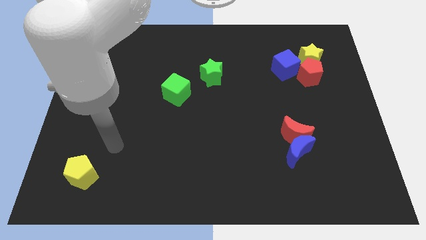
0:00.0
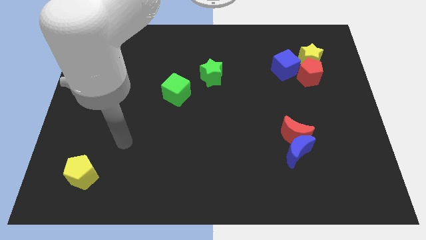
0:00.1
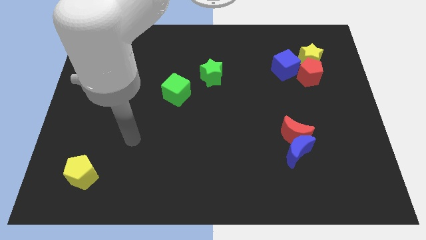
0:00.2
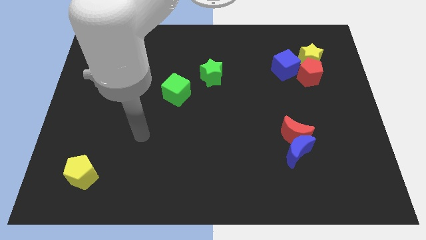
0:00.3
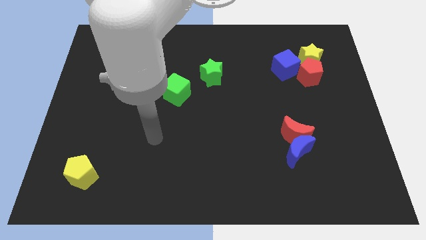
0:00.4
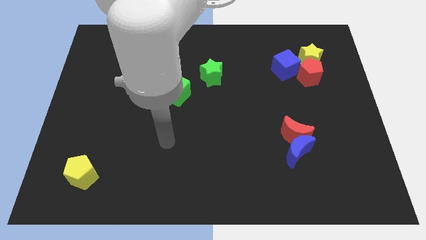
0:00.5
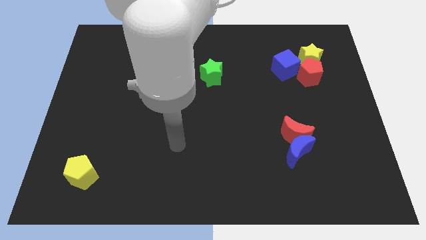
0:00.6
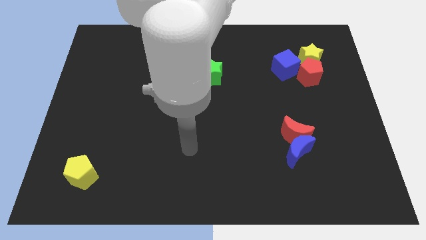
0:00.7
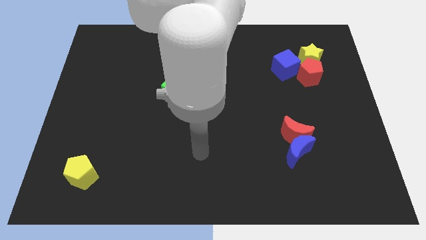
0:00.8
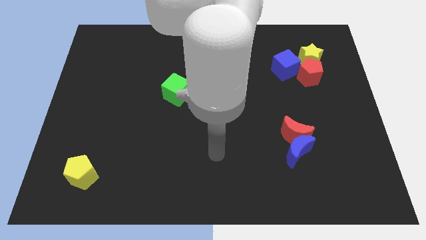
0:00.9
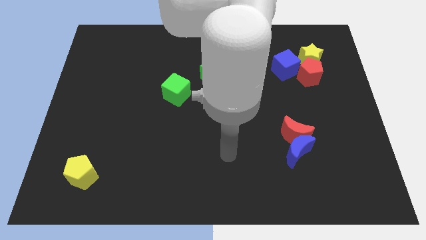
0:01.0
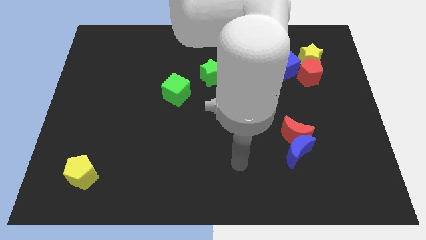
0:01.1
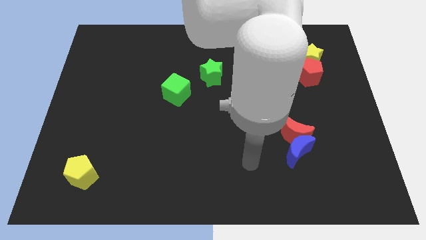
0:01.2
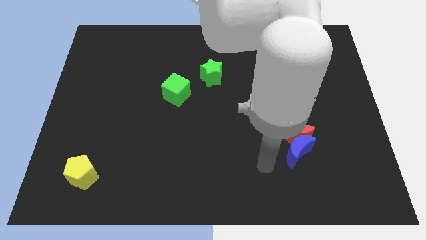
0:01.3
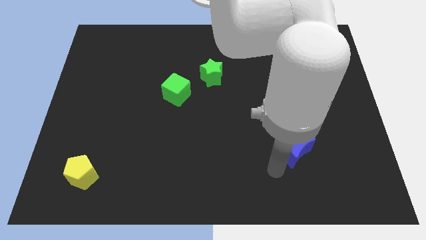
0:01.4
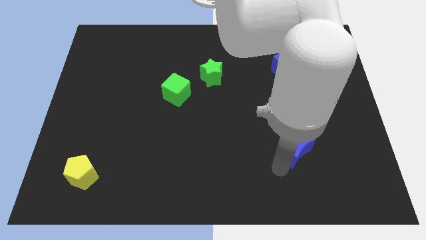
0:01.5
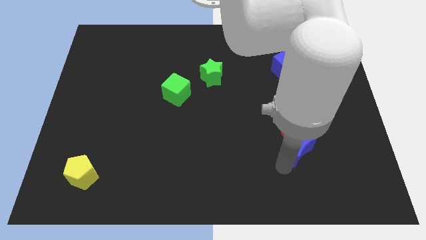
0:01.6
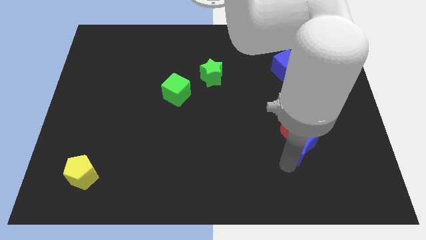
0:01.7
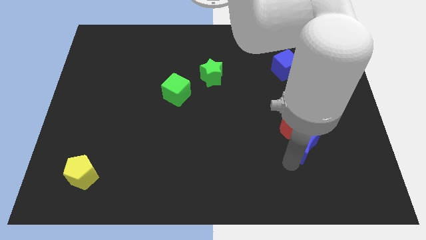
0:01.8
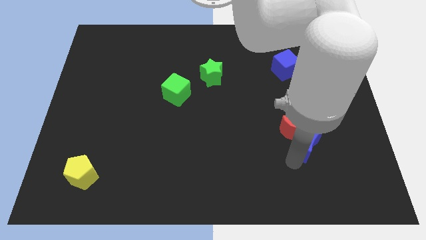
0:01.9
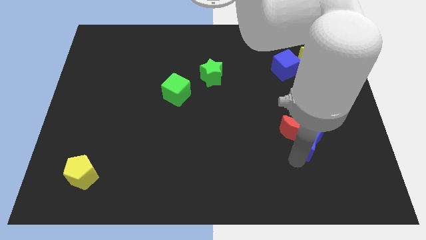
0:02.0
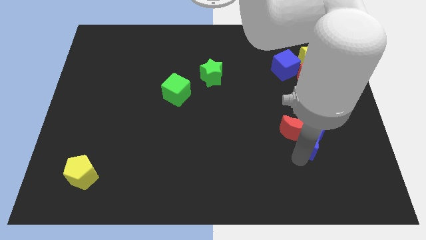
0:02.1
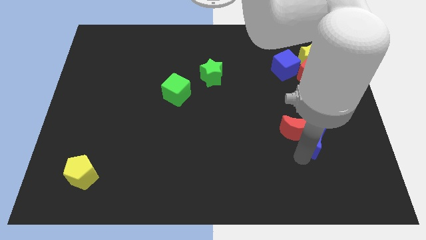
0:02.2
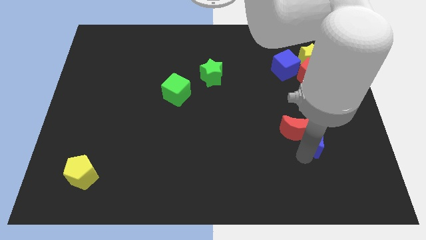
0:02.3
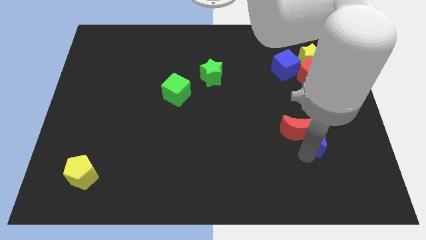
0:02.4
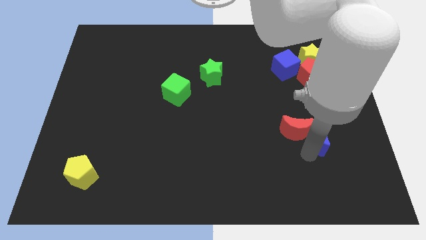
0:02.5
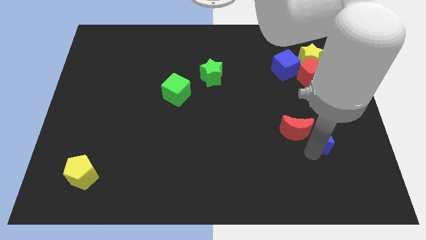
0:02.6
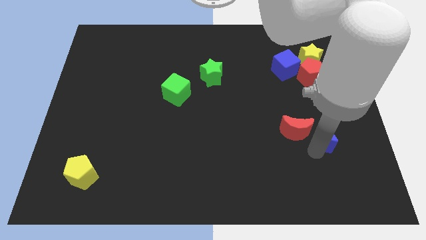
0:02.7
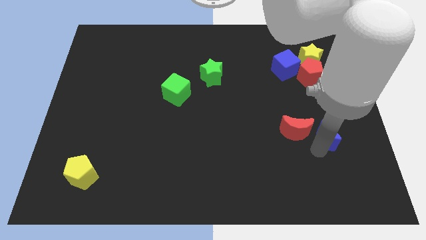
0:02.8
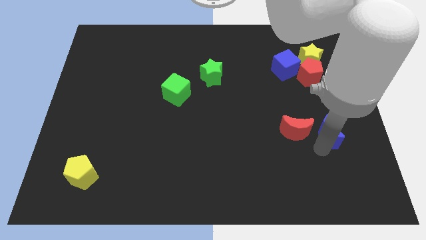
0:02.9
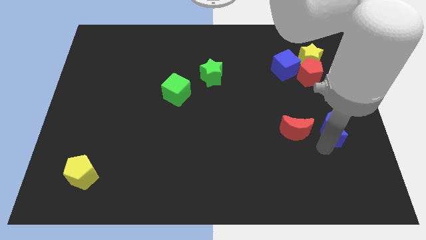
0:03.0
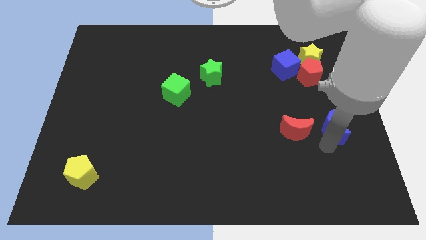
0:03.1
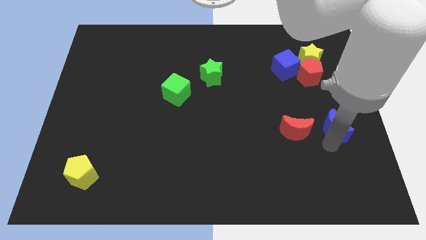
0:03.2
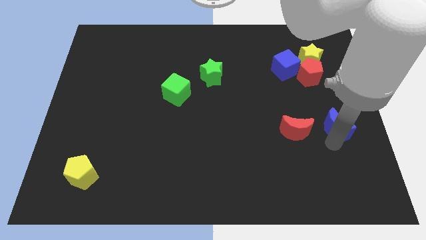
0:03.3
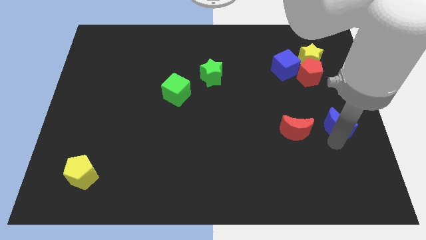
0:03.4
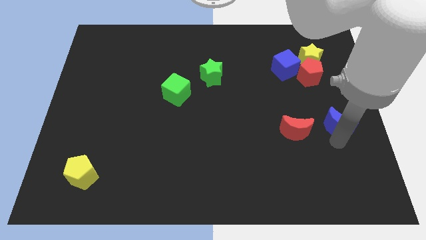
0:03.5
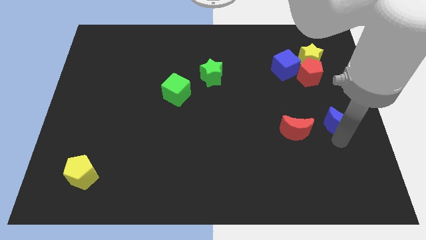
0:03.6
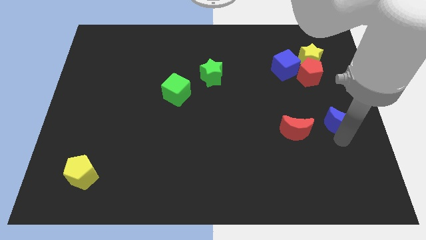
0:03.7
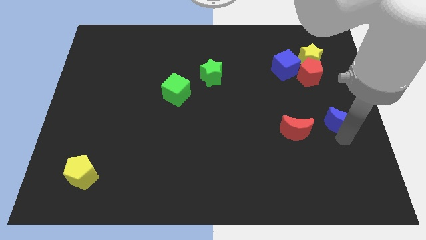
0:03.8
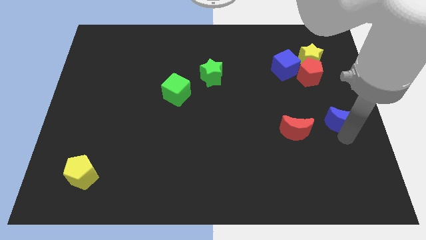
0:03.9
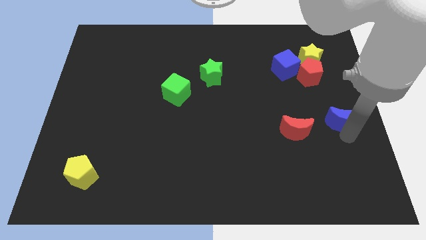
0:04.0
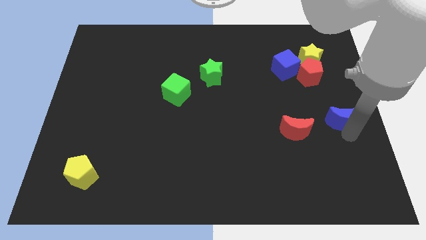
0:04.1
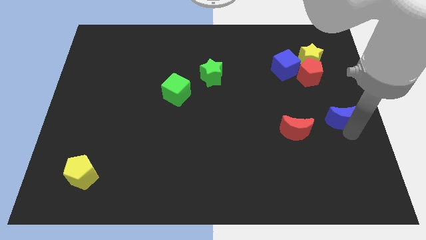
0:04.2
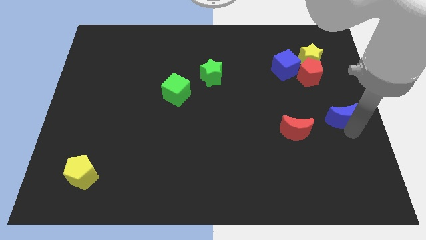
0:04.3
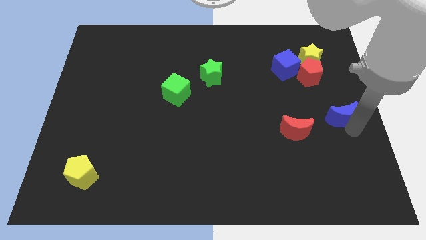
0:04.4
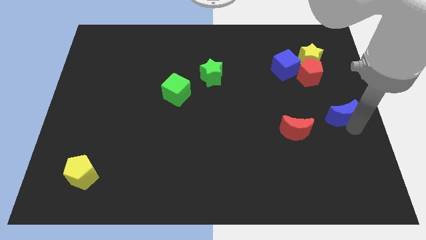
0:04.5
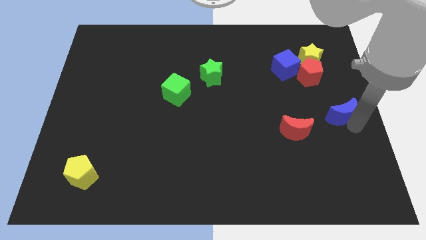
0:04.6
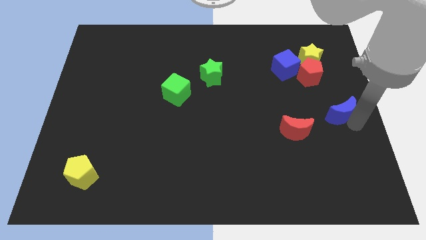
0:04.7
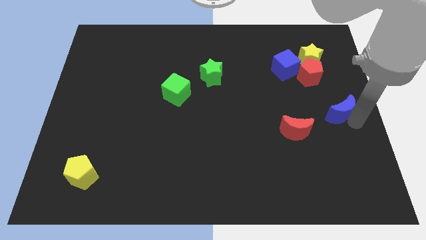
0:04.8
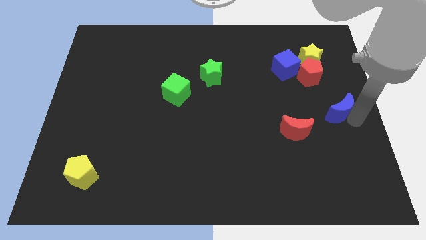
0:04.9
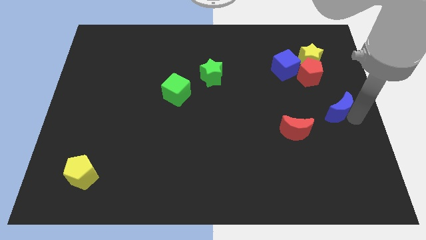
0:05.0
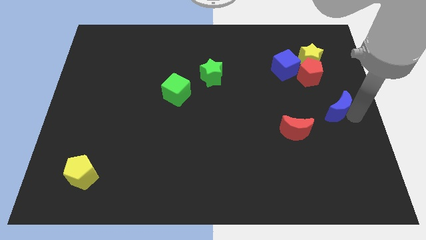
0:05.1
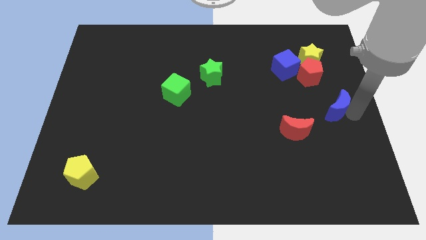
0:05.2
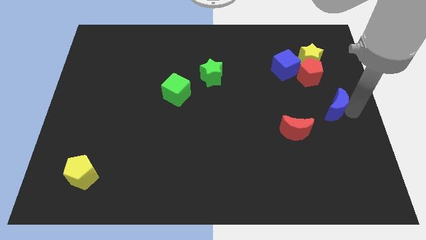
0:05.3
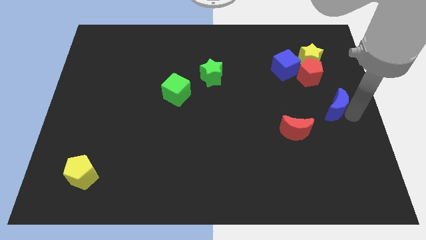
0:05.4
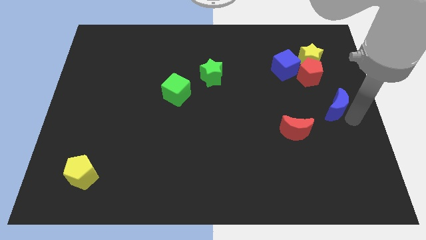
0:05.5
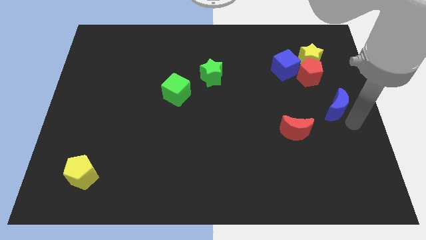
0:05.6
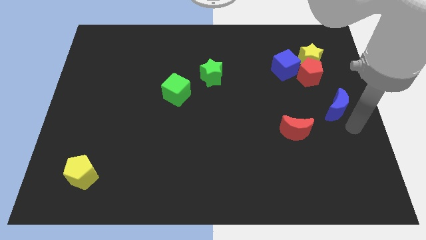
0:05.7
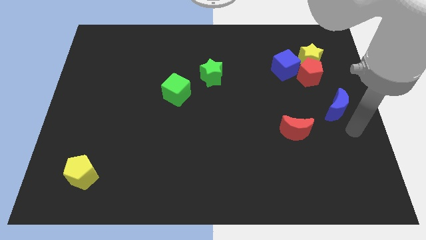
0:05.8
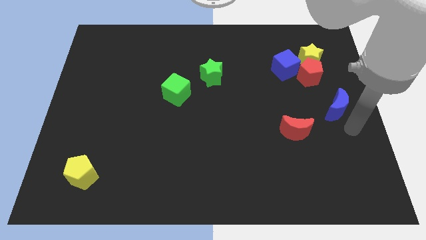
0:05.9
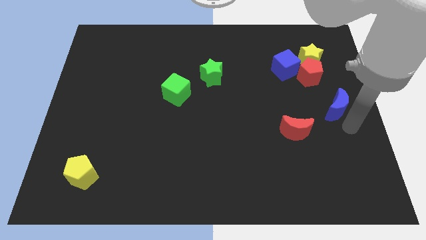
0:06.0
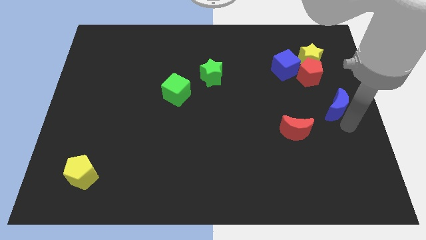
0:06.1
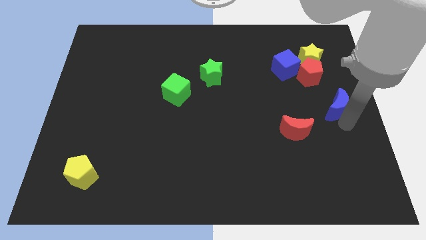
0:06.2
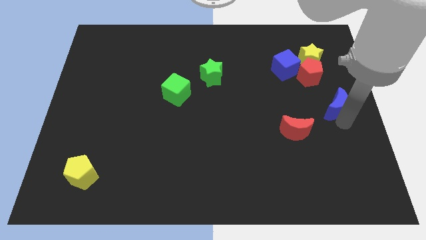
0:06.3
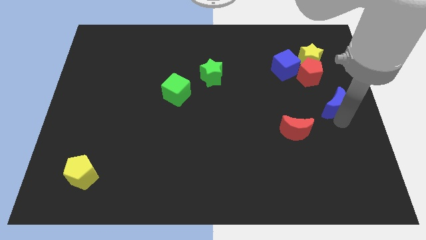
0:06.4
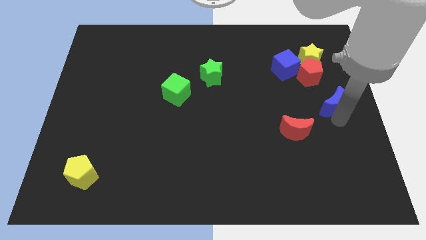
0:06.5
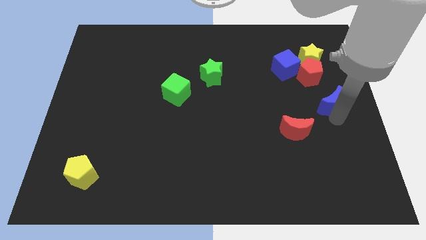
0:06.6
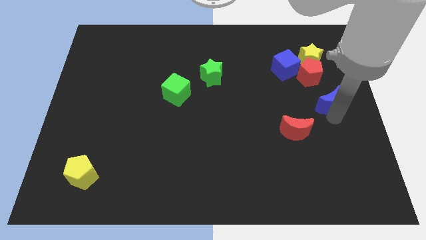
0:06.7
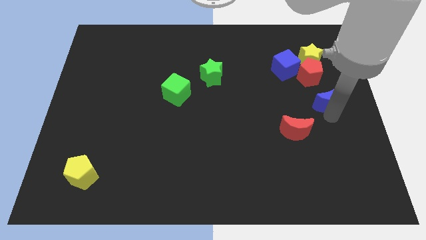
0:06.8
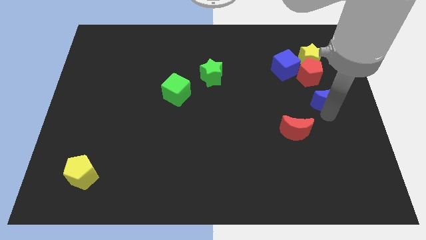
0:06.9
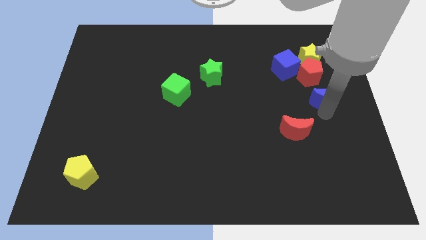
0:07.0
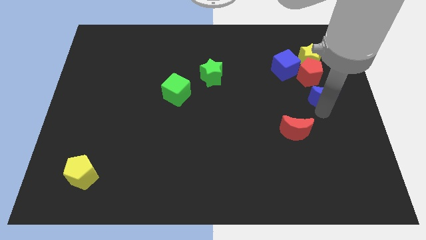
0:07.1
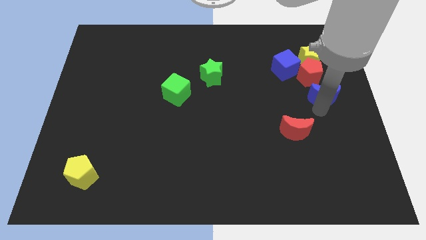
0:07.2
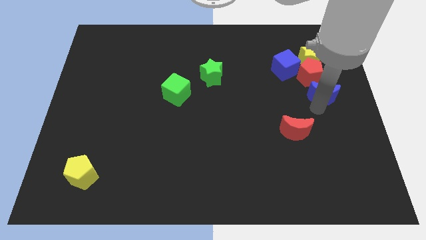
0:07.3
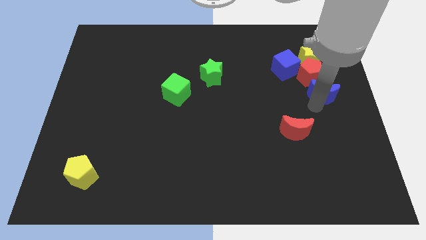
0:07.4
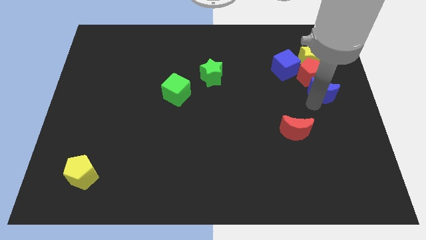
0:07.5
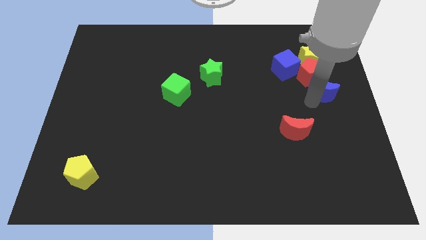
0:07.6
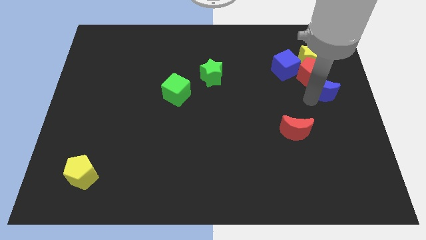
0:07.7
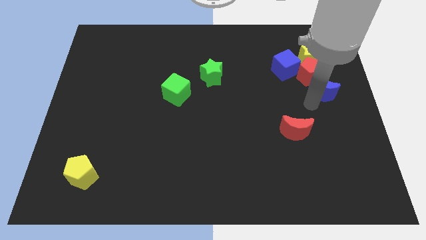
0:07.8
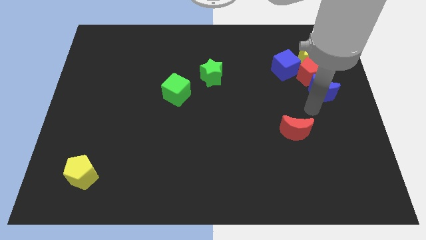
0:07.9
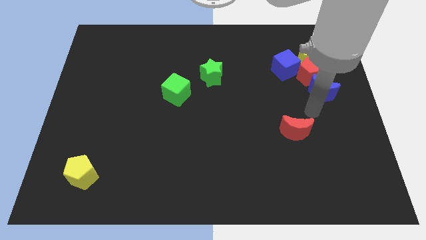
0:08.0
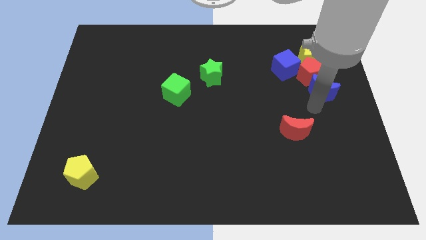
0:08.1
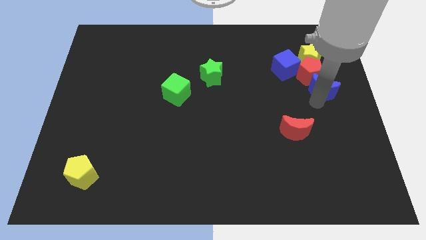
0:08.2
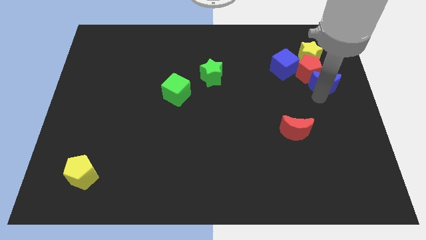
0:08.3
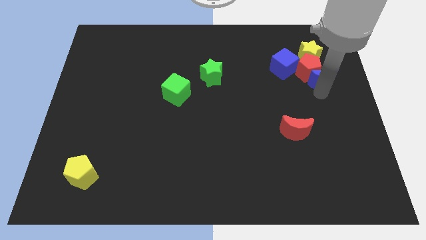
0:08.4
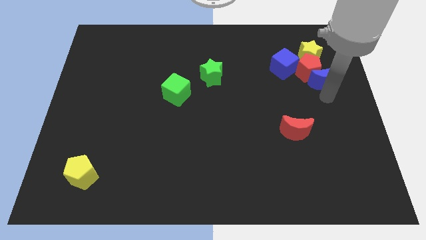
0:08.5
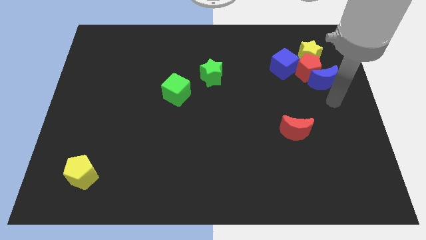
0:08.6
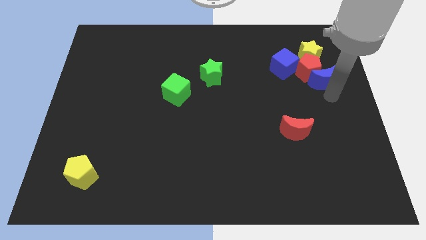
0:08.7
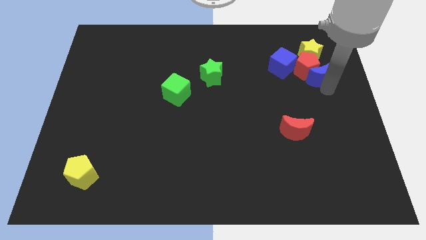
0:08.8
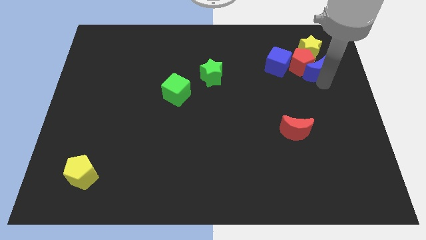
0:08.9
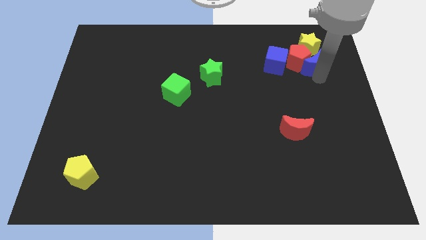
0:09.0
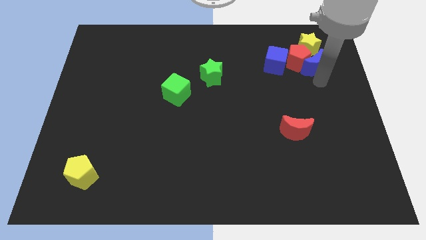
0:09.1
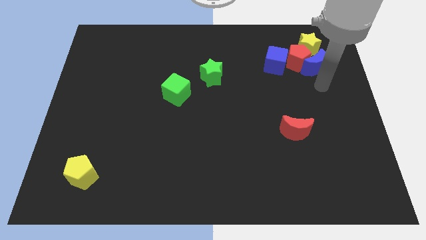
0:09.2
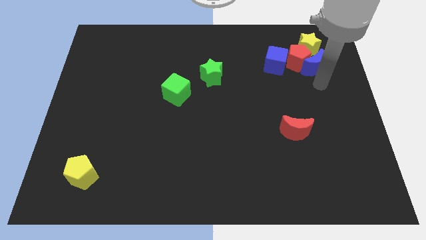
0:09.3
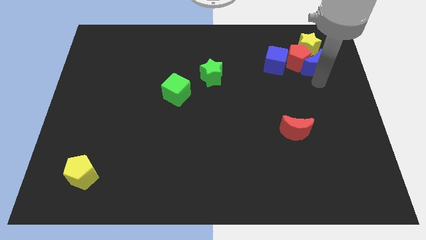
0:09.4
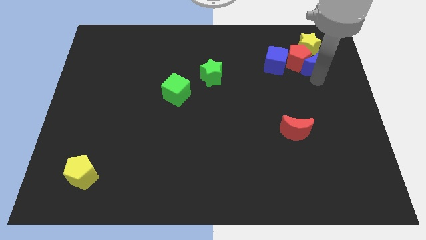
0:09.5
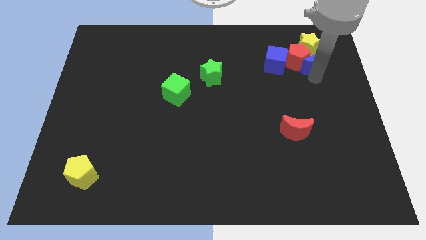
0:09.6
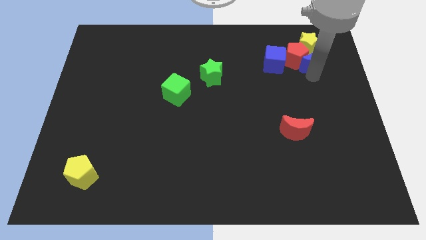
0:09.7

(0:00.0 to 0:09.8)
move the blue moon next to the yellow star
